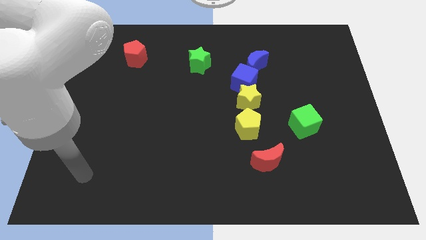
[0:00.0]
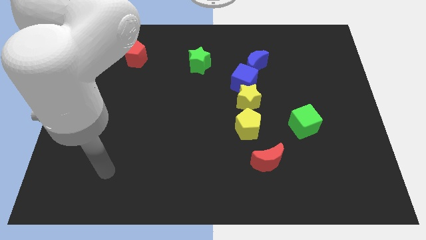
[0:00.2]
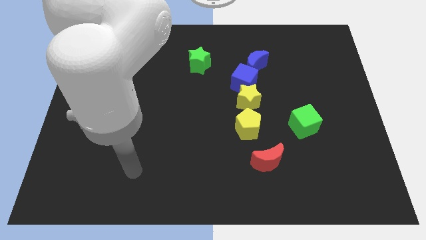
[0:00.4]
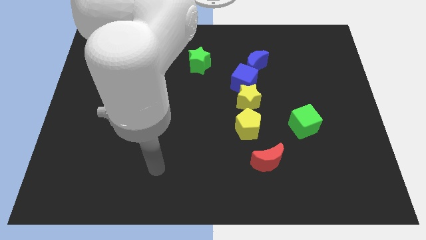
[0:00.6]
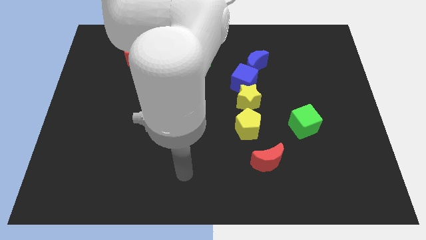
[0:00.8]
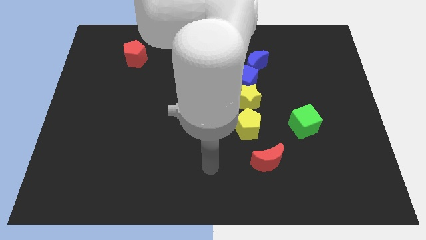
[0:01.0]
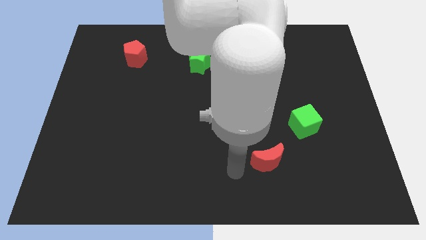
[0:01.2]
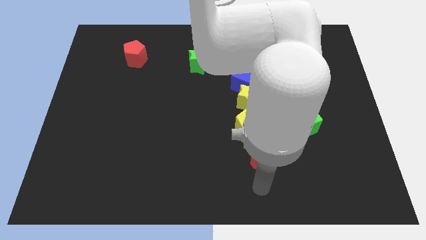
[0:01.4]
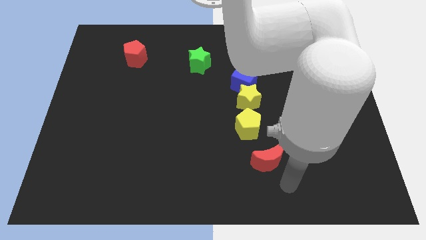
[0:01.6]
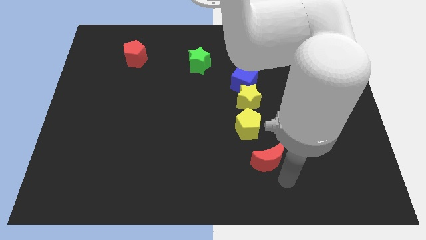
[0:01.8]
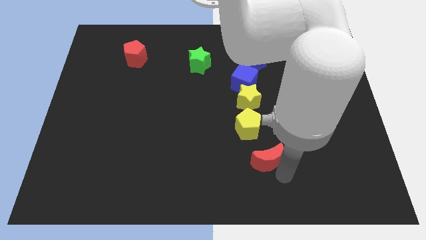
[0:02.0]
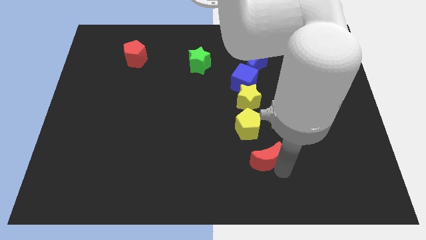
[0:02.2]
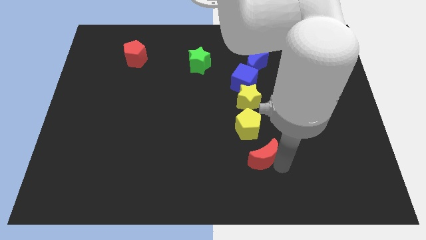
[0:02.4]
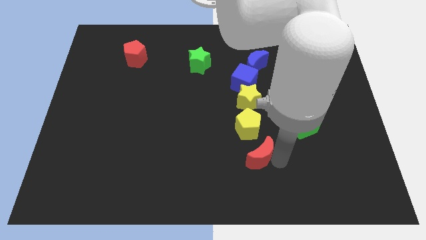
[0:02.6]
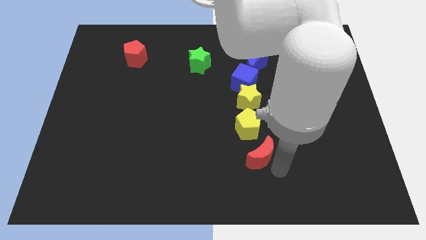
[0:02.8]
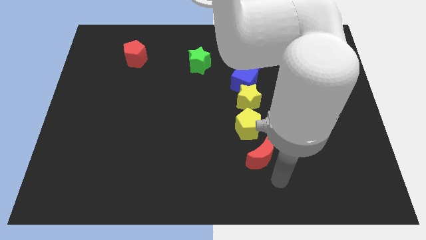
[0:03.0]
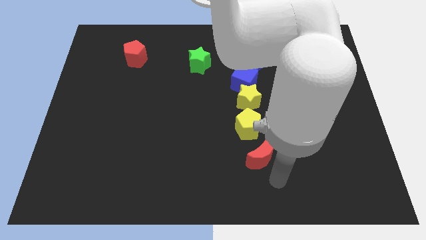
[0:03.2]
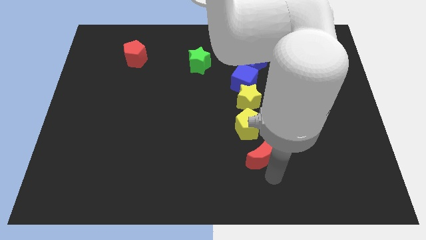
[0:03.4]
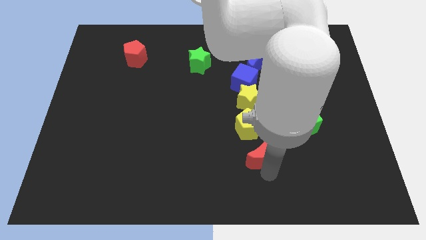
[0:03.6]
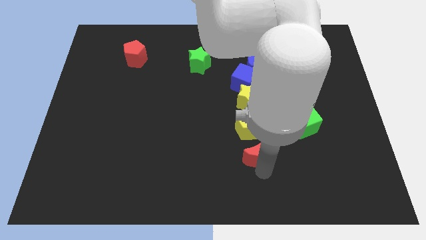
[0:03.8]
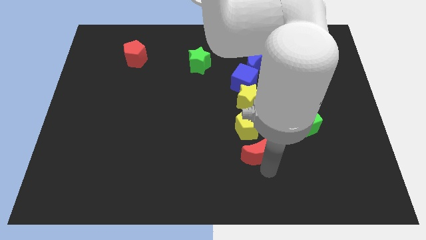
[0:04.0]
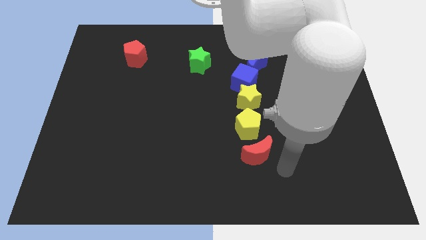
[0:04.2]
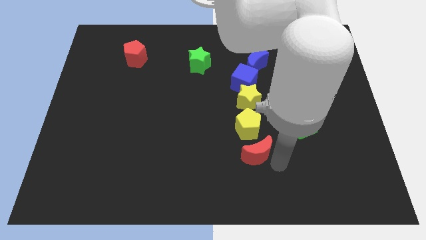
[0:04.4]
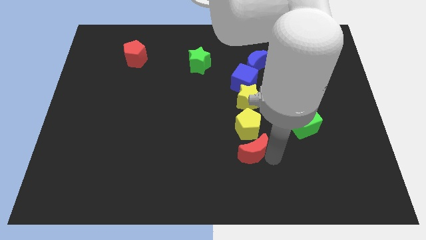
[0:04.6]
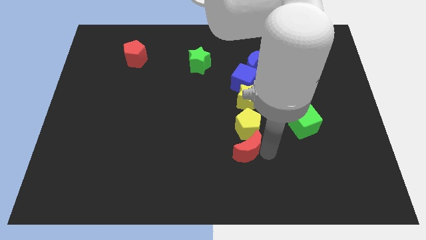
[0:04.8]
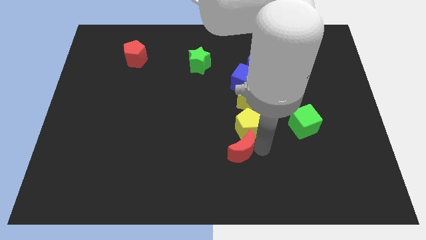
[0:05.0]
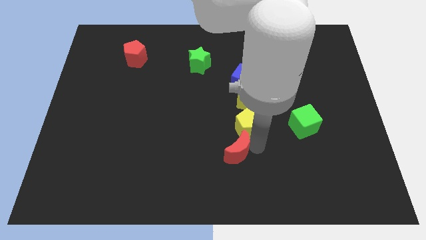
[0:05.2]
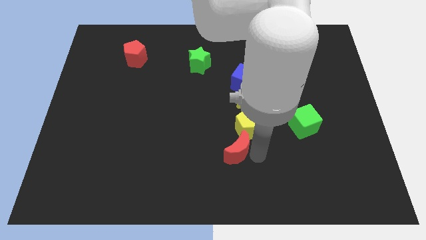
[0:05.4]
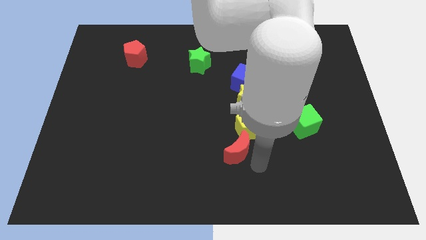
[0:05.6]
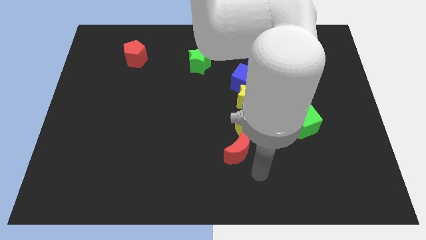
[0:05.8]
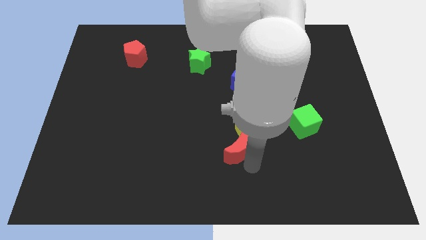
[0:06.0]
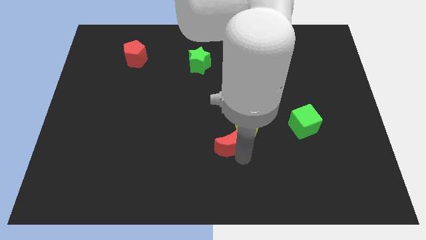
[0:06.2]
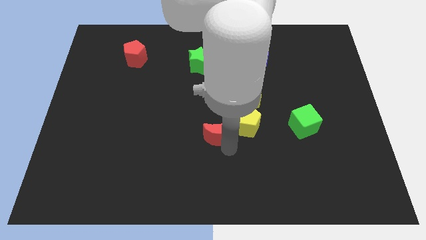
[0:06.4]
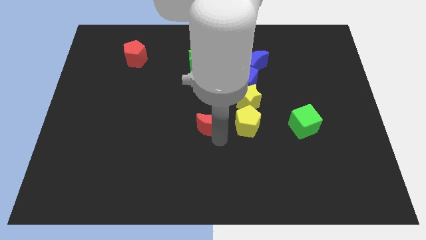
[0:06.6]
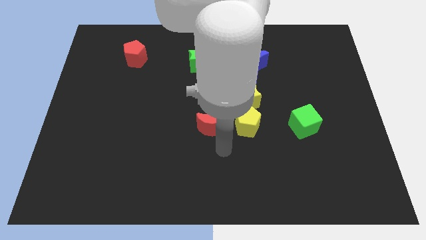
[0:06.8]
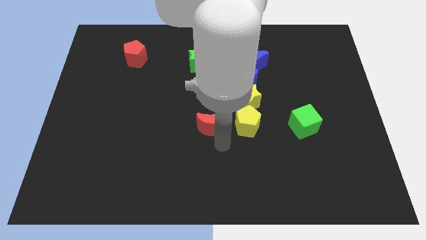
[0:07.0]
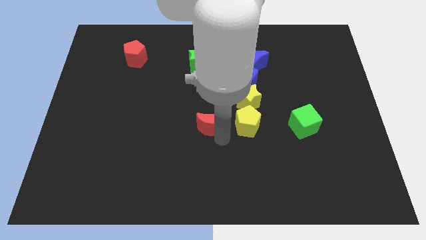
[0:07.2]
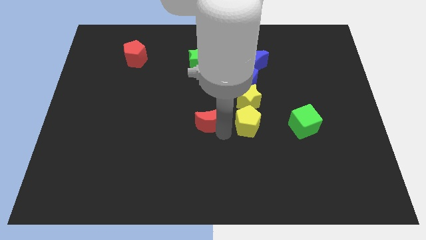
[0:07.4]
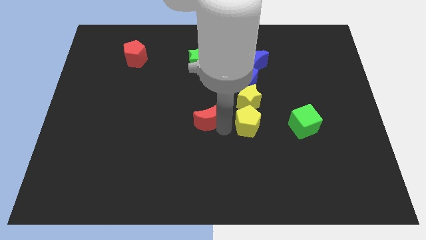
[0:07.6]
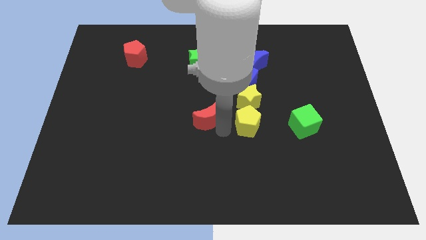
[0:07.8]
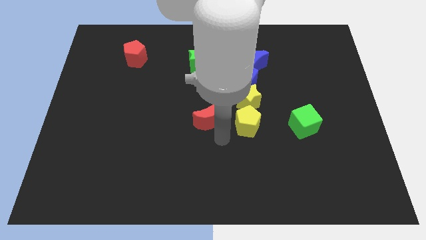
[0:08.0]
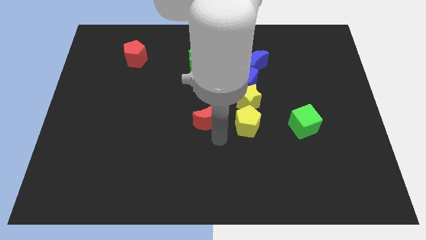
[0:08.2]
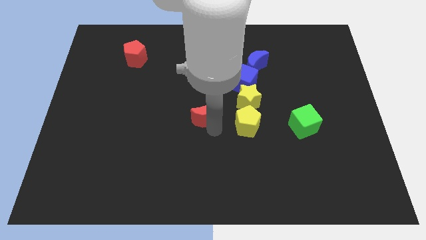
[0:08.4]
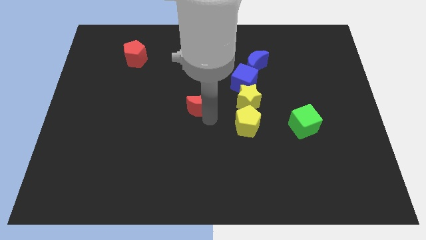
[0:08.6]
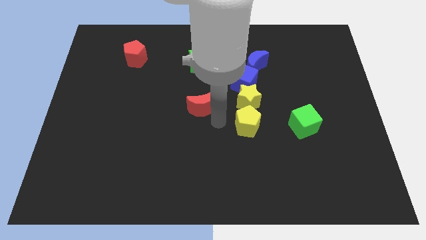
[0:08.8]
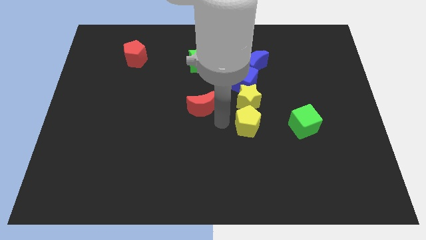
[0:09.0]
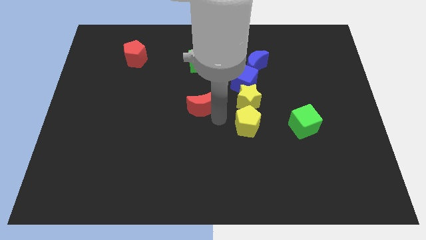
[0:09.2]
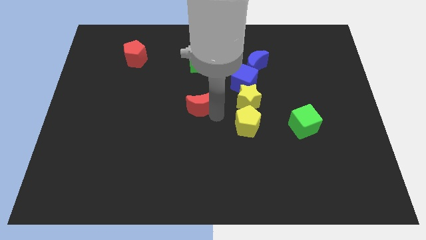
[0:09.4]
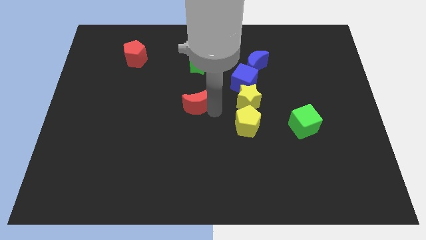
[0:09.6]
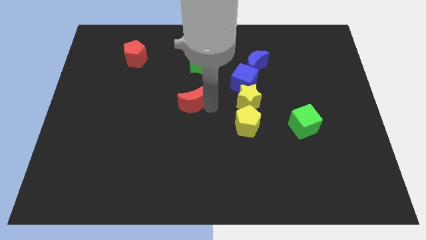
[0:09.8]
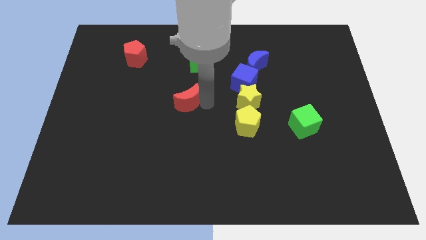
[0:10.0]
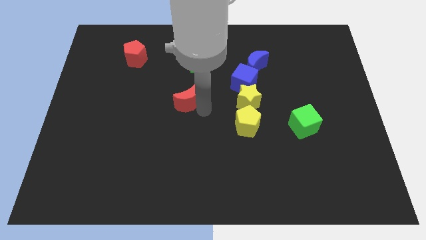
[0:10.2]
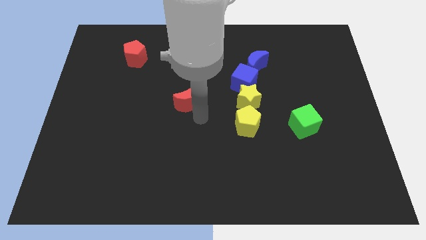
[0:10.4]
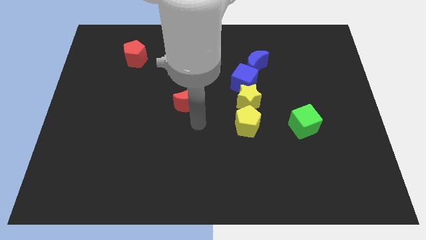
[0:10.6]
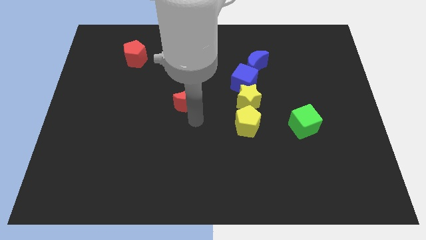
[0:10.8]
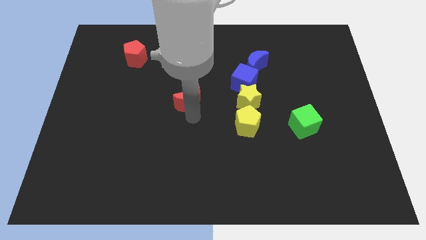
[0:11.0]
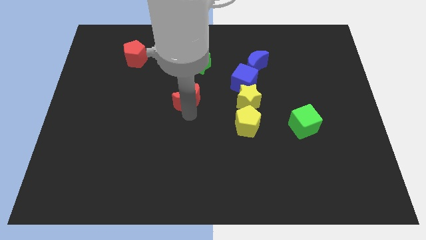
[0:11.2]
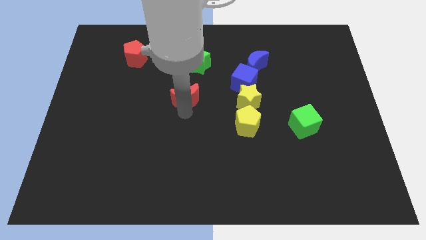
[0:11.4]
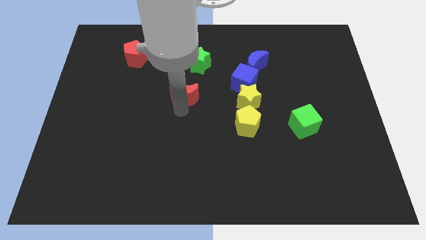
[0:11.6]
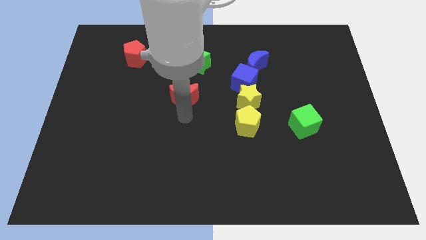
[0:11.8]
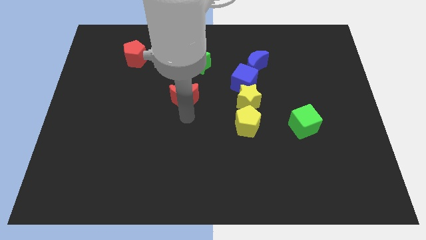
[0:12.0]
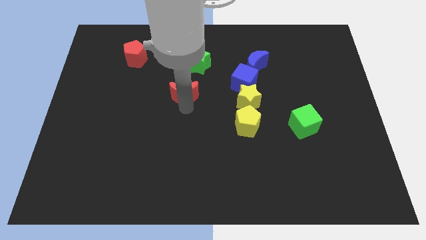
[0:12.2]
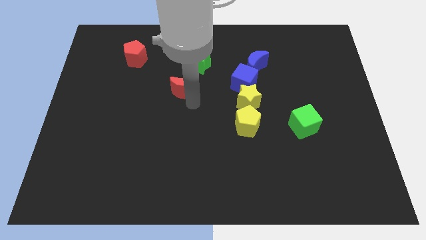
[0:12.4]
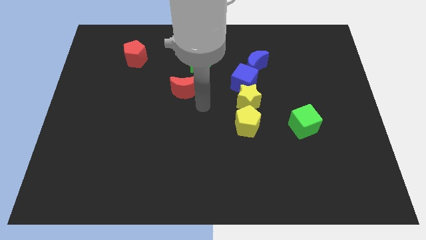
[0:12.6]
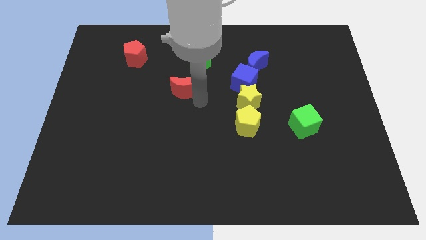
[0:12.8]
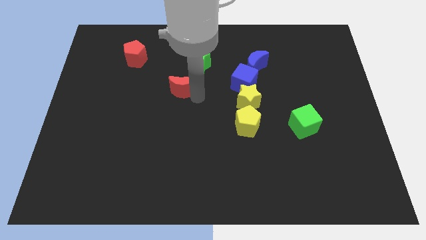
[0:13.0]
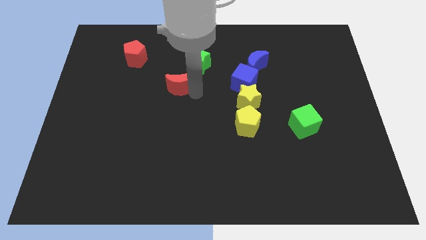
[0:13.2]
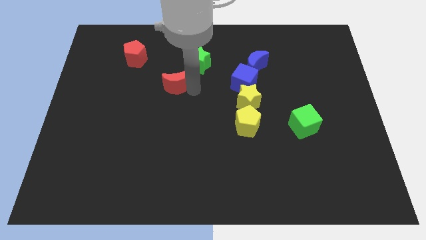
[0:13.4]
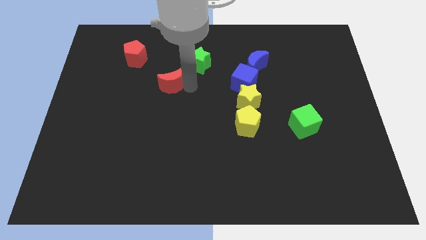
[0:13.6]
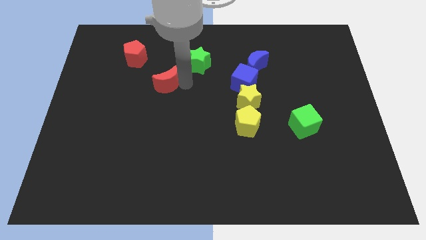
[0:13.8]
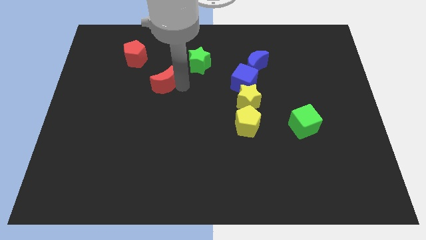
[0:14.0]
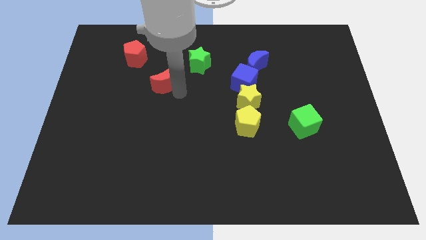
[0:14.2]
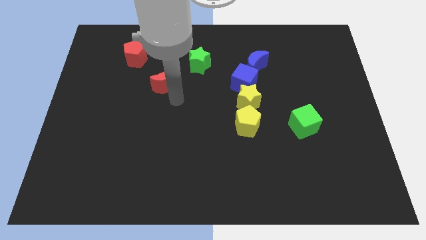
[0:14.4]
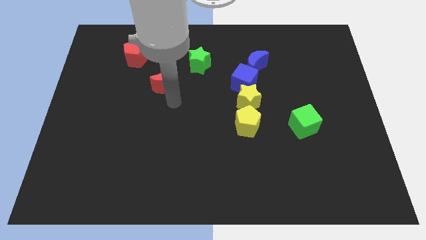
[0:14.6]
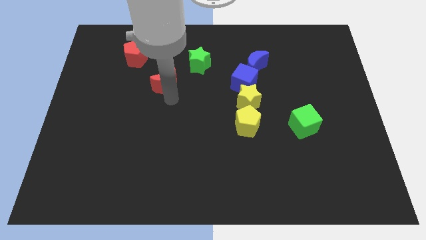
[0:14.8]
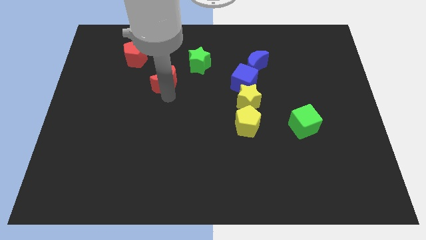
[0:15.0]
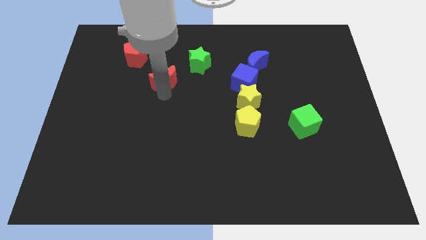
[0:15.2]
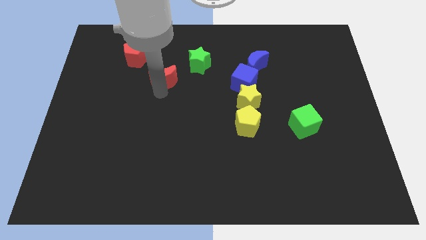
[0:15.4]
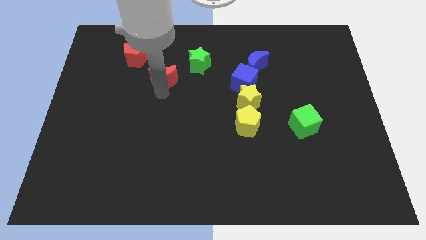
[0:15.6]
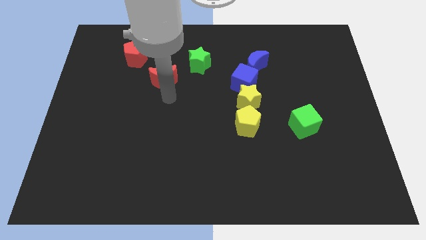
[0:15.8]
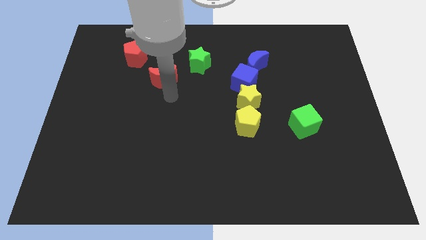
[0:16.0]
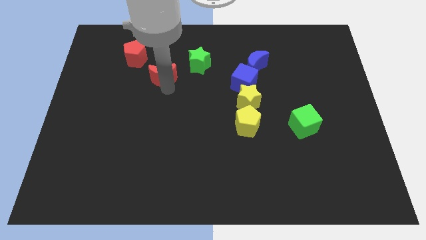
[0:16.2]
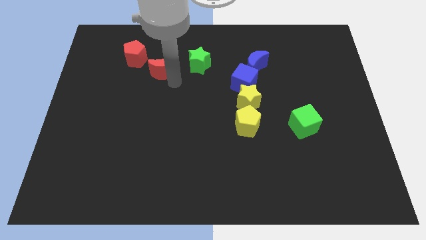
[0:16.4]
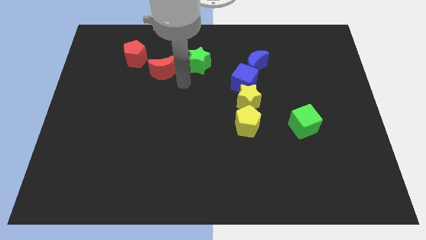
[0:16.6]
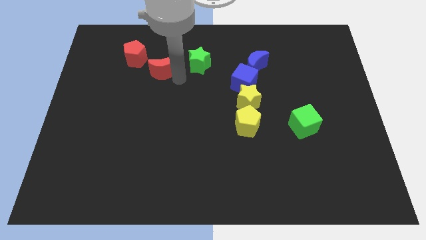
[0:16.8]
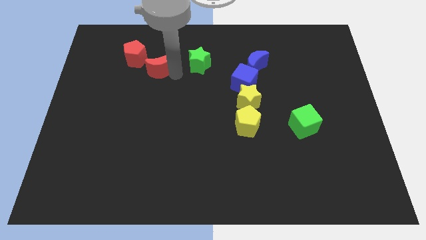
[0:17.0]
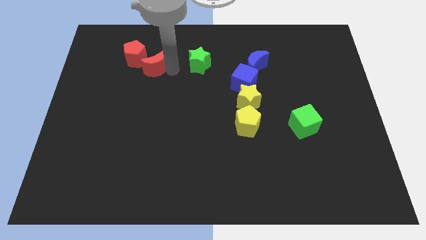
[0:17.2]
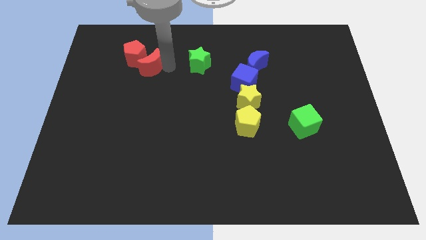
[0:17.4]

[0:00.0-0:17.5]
slide the red moon next to the red pentagon
